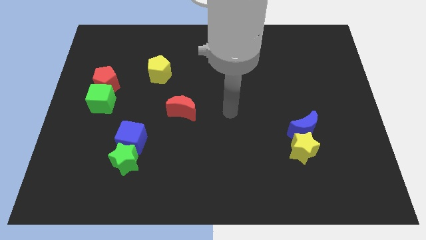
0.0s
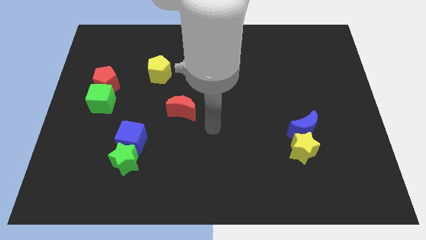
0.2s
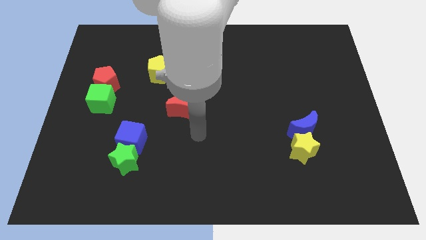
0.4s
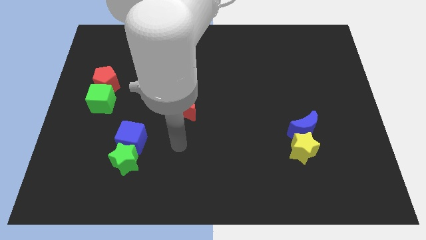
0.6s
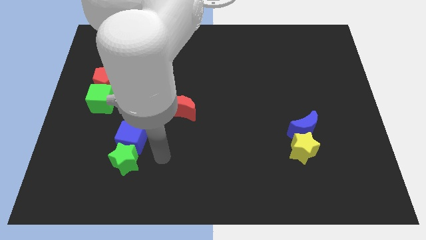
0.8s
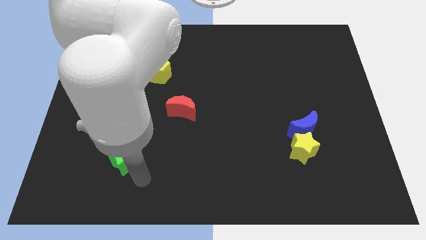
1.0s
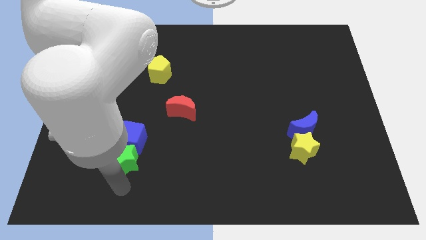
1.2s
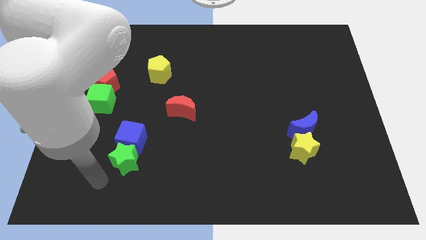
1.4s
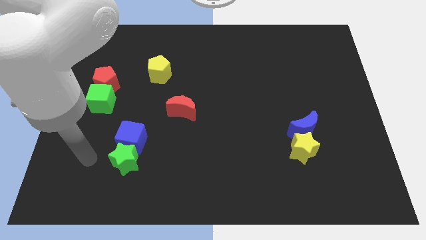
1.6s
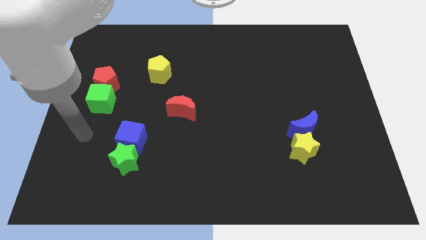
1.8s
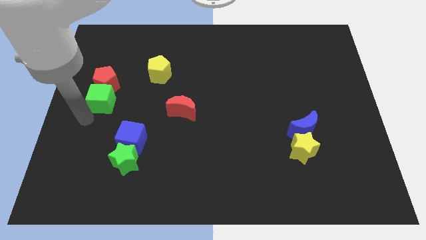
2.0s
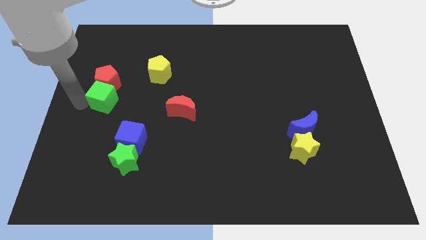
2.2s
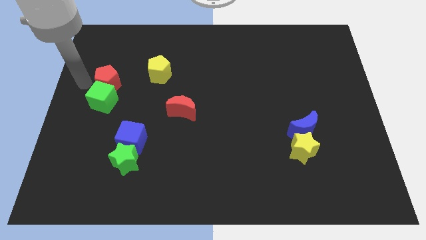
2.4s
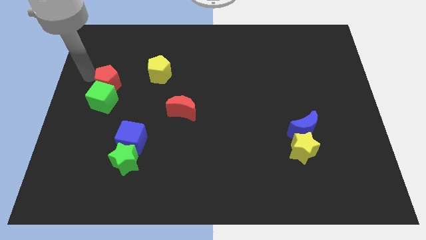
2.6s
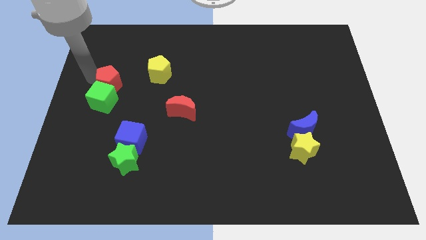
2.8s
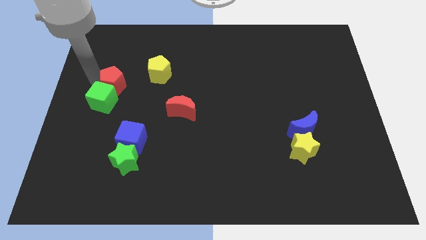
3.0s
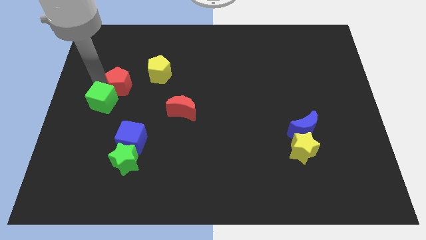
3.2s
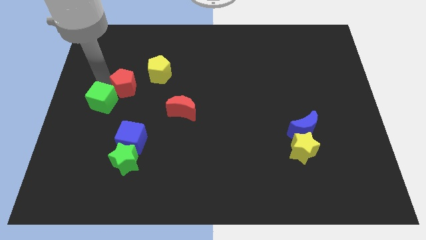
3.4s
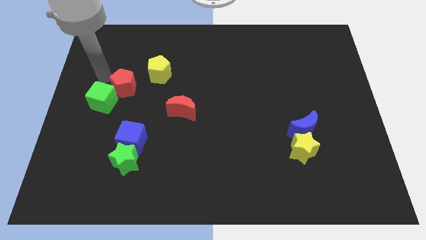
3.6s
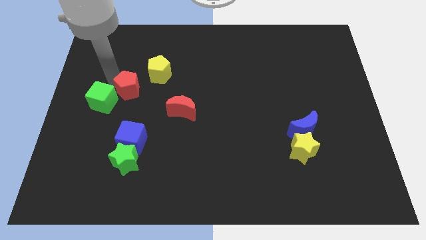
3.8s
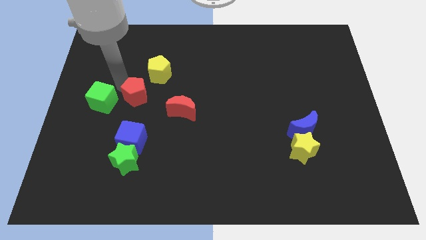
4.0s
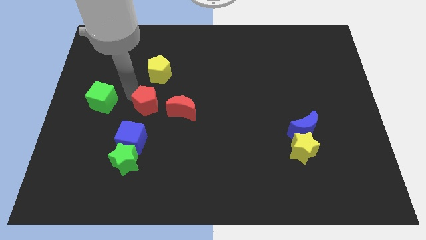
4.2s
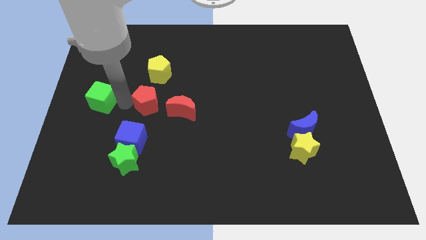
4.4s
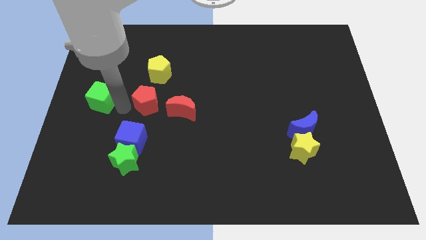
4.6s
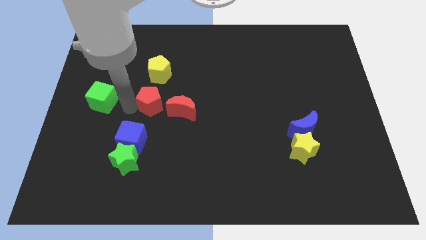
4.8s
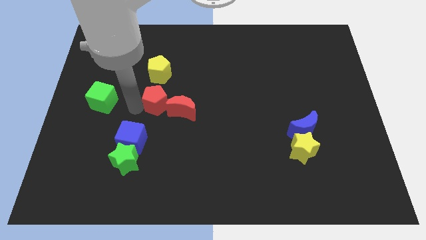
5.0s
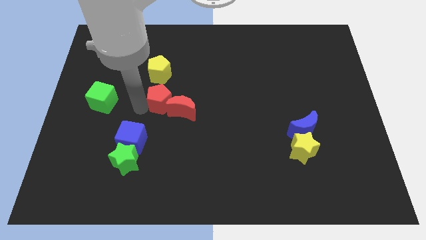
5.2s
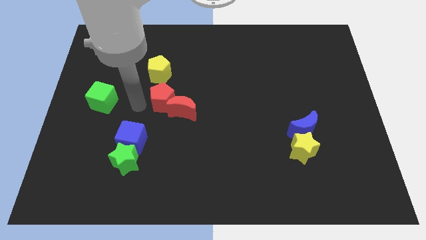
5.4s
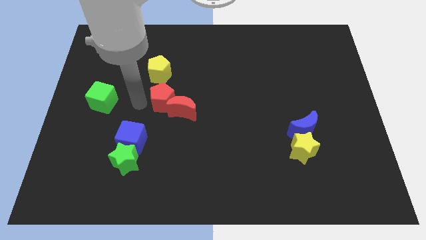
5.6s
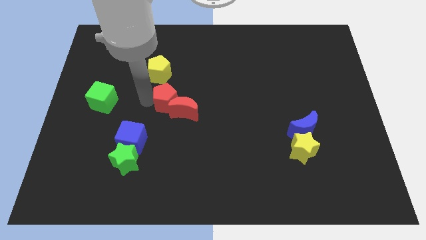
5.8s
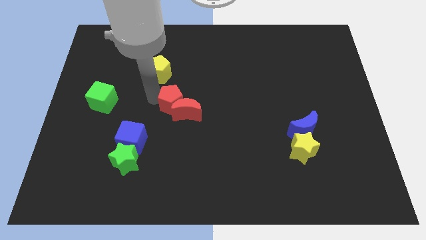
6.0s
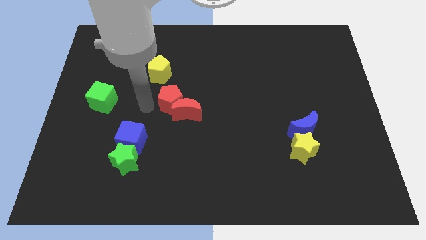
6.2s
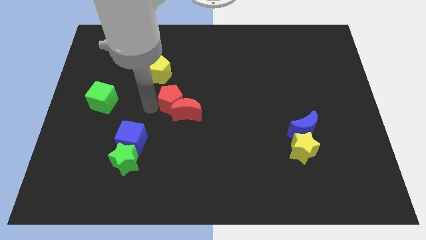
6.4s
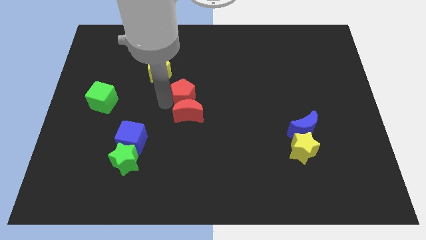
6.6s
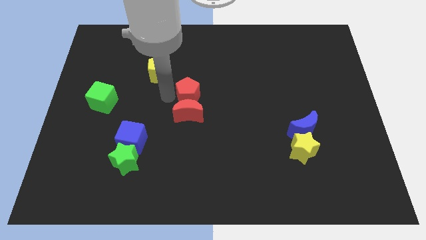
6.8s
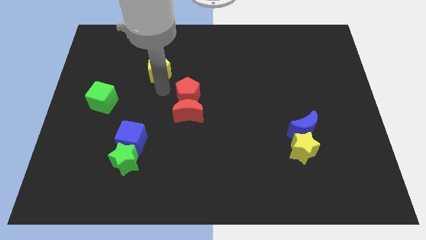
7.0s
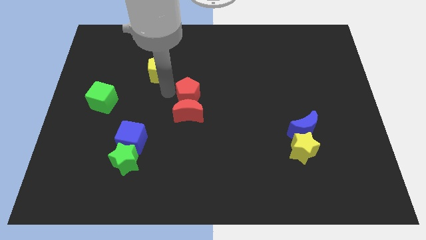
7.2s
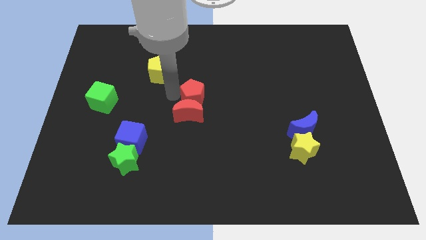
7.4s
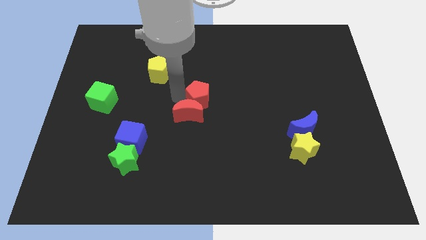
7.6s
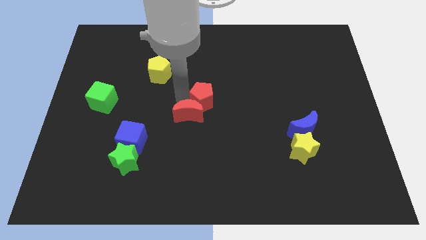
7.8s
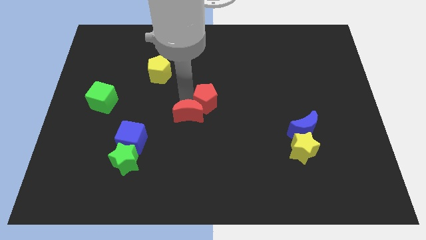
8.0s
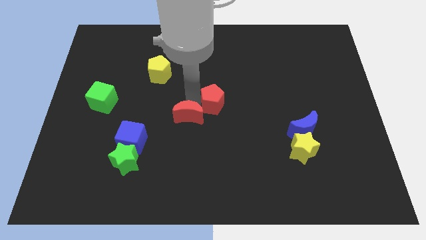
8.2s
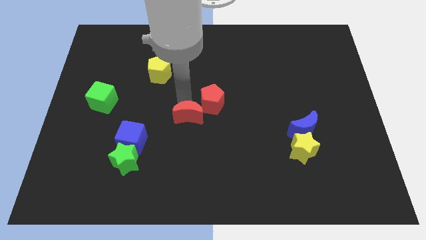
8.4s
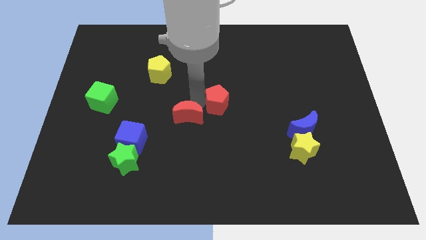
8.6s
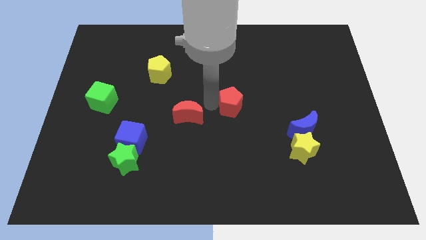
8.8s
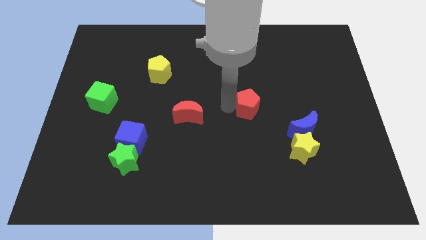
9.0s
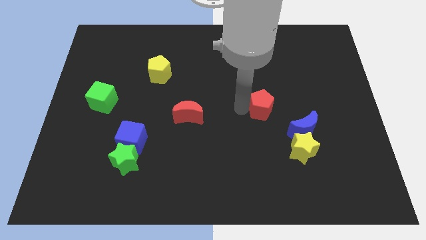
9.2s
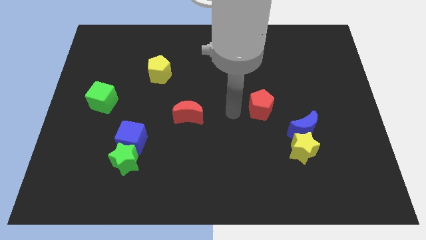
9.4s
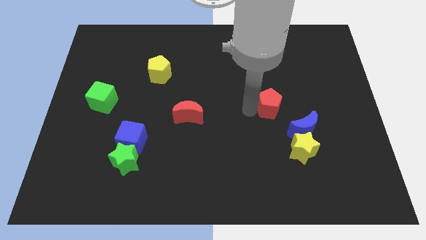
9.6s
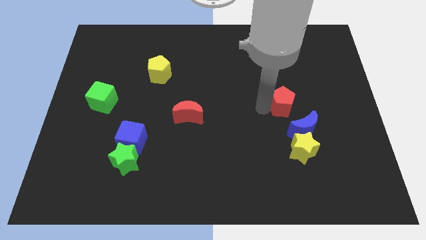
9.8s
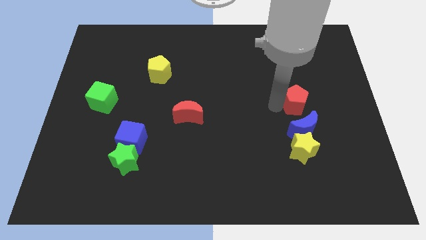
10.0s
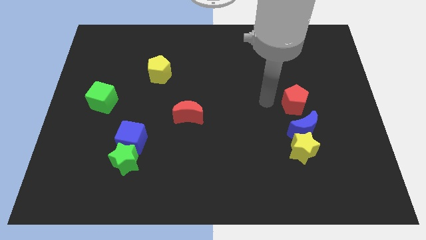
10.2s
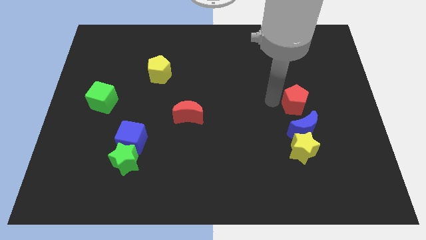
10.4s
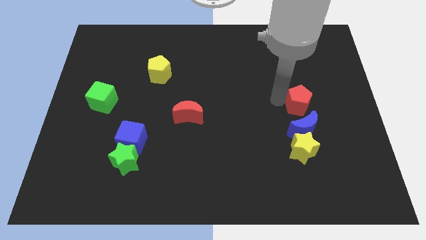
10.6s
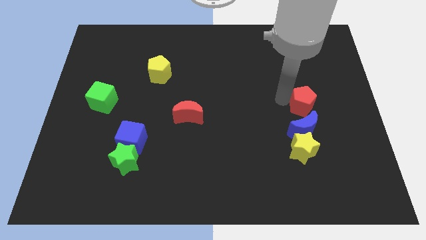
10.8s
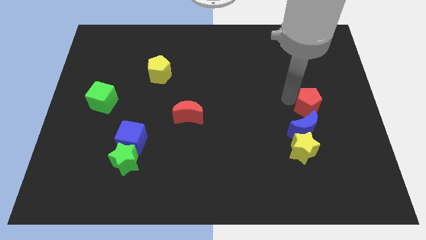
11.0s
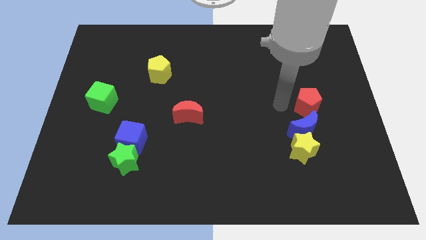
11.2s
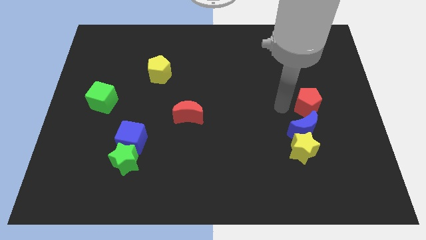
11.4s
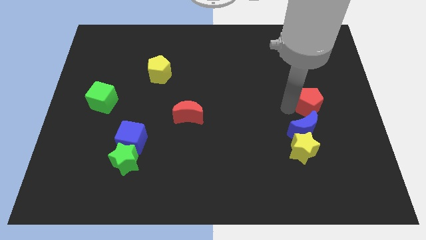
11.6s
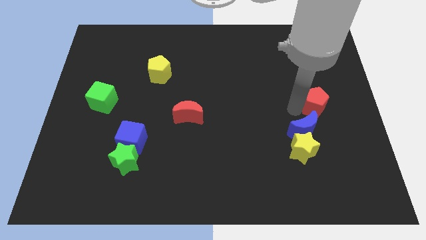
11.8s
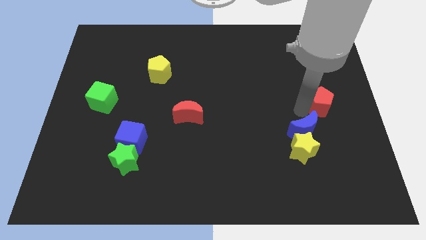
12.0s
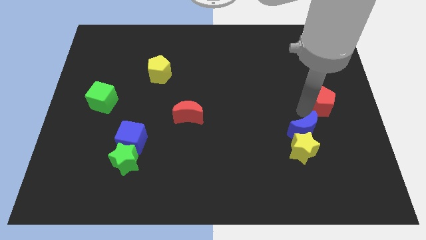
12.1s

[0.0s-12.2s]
move the red pentagon to the center right

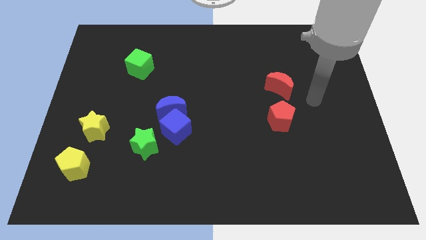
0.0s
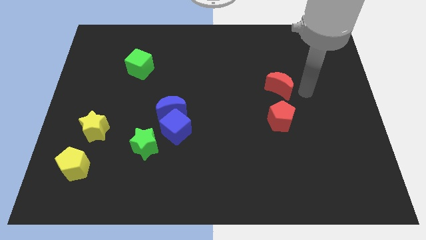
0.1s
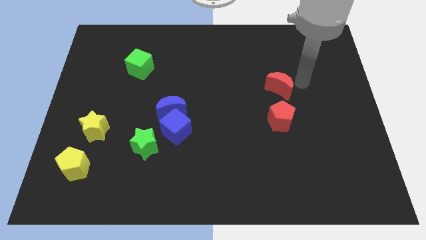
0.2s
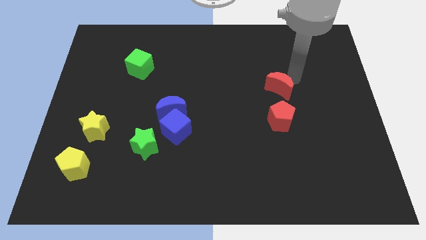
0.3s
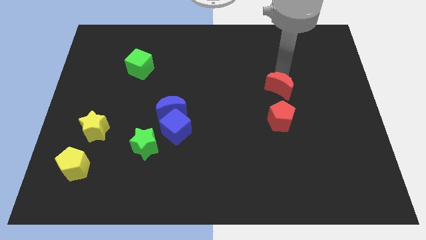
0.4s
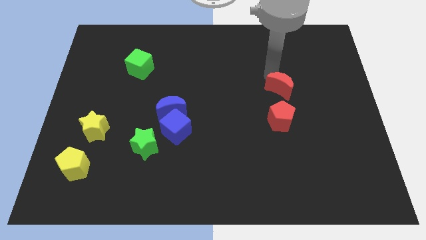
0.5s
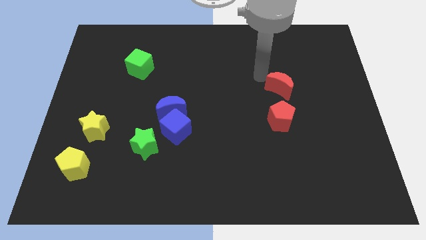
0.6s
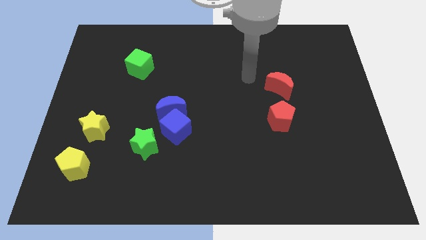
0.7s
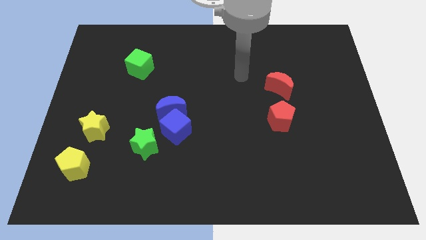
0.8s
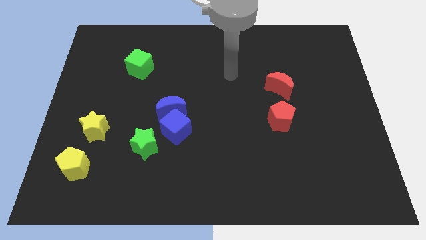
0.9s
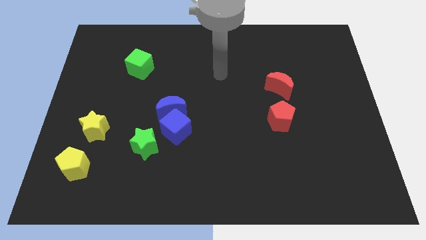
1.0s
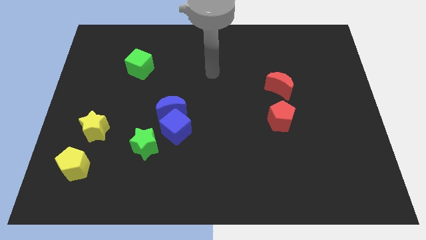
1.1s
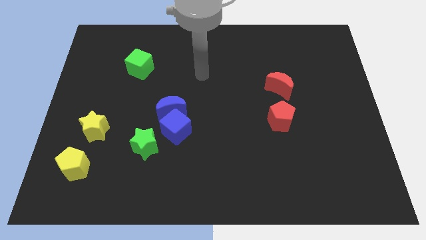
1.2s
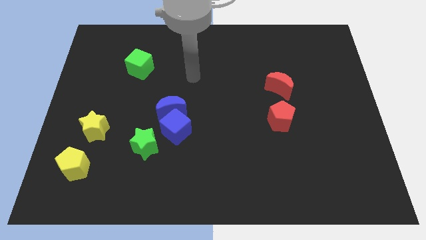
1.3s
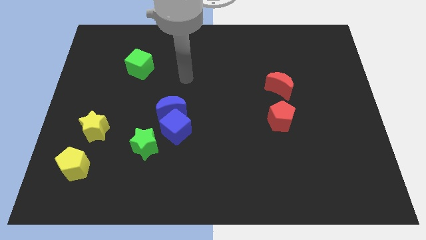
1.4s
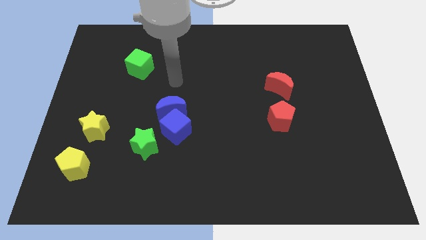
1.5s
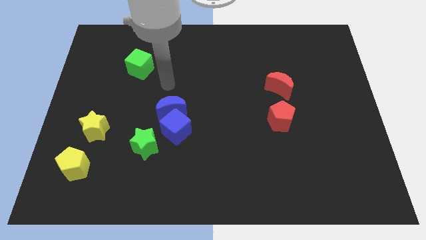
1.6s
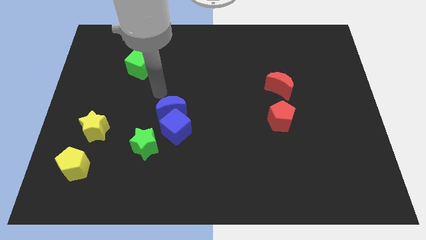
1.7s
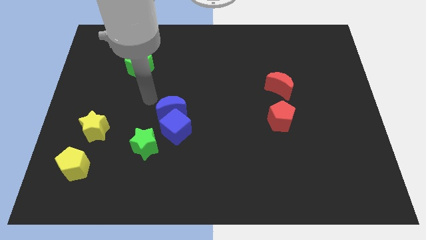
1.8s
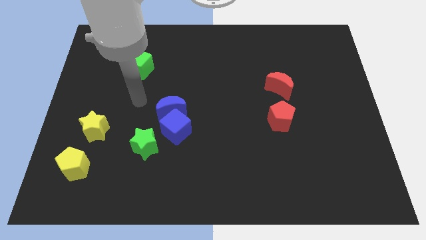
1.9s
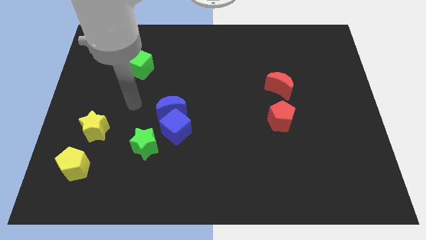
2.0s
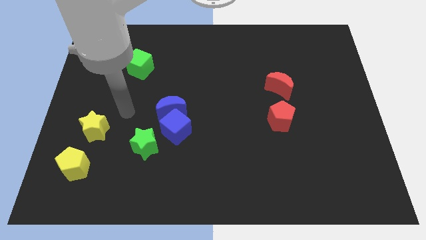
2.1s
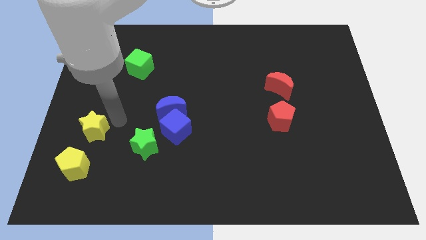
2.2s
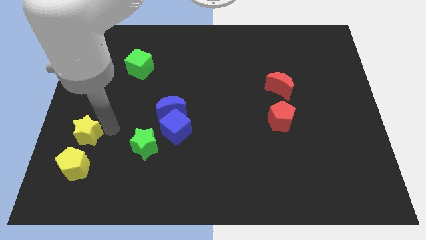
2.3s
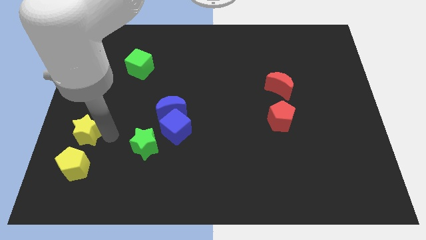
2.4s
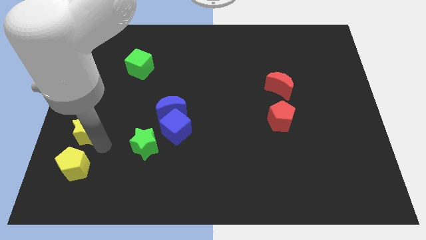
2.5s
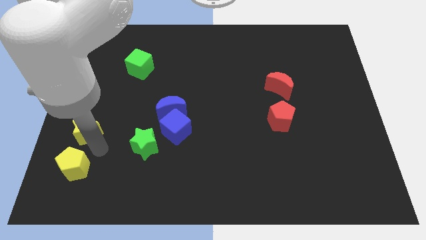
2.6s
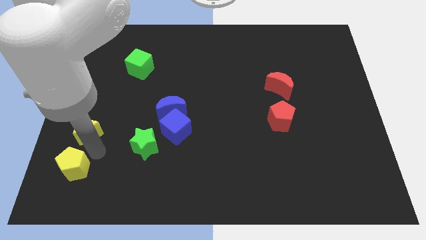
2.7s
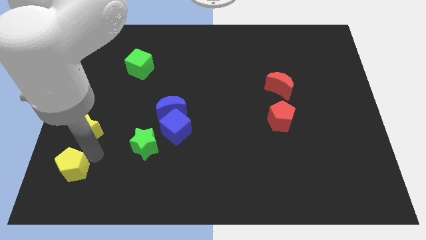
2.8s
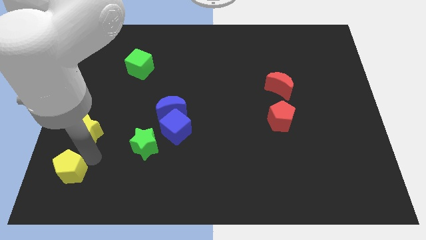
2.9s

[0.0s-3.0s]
put the yellow pentagon to the bottom left corner
